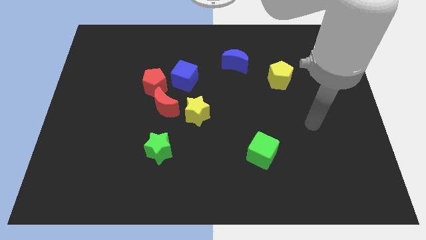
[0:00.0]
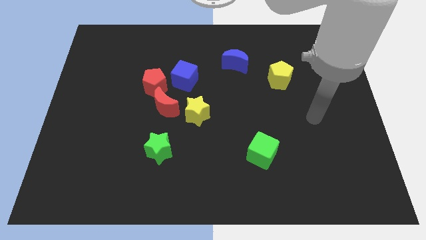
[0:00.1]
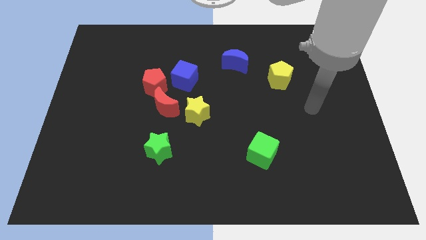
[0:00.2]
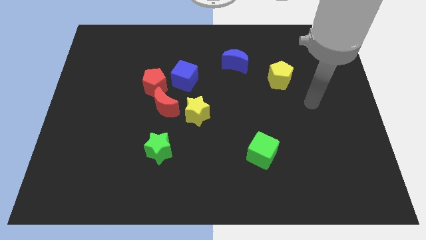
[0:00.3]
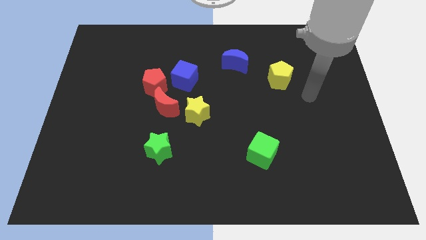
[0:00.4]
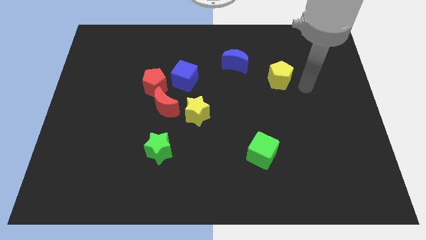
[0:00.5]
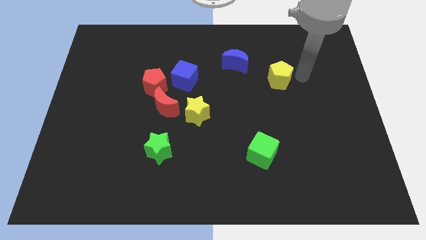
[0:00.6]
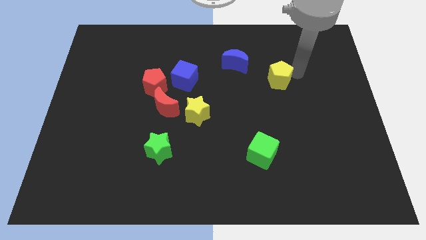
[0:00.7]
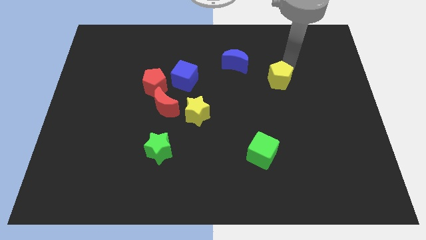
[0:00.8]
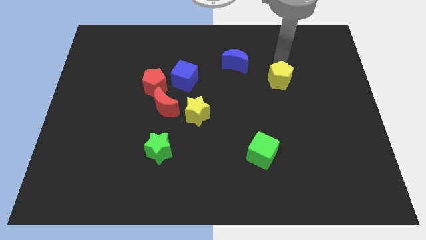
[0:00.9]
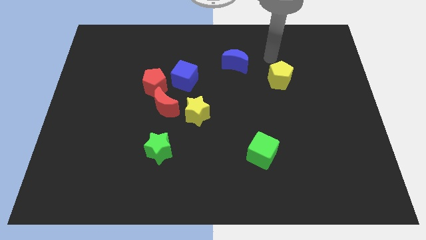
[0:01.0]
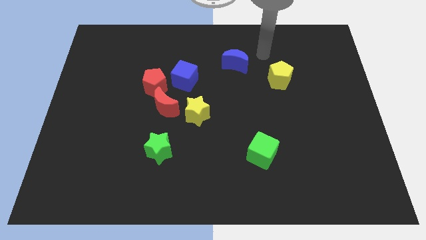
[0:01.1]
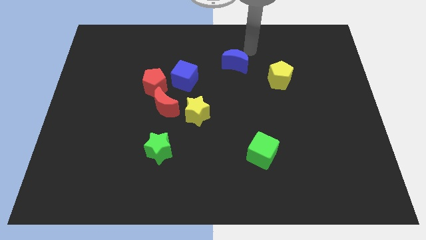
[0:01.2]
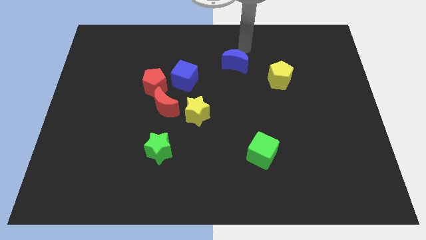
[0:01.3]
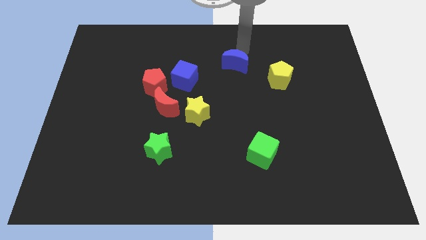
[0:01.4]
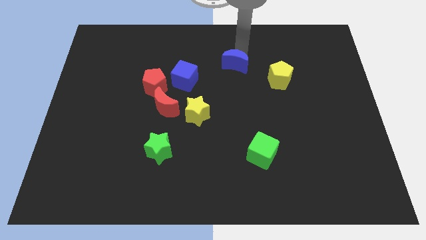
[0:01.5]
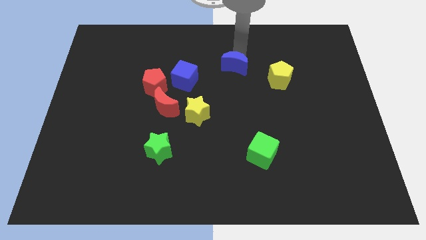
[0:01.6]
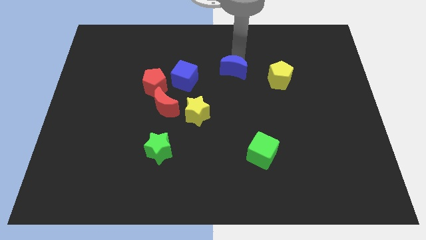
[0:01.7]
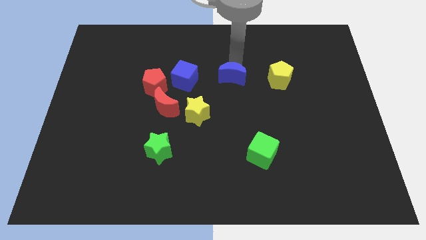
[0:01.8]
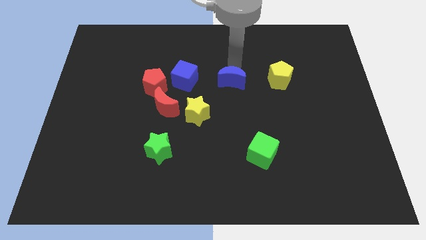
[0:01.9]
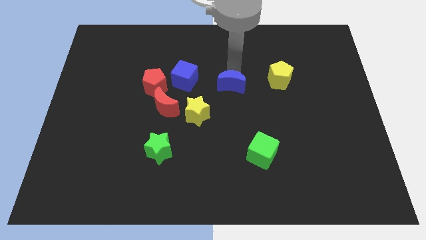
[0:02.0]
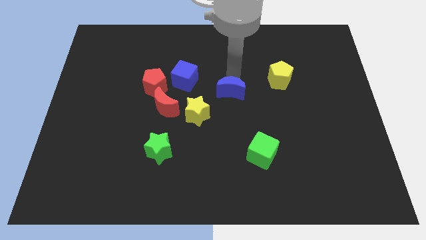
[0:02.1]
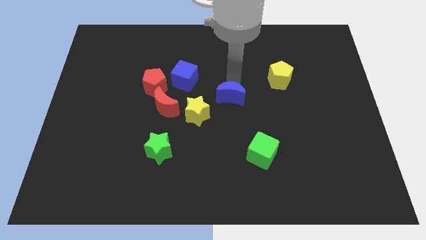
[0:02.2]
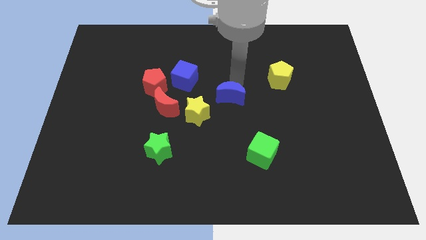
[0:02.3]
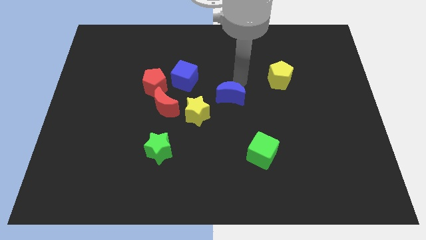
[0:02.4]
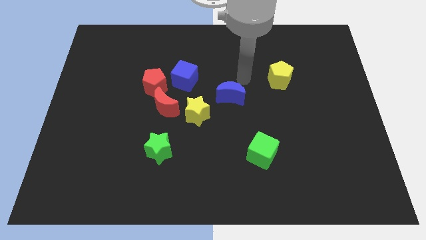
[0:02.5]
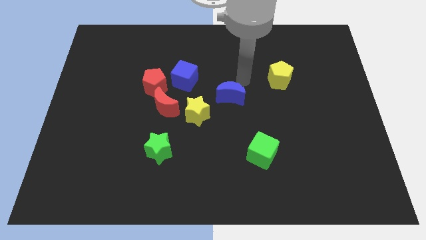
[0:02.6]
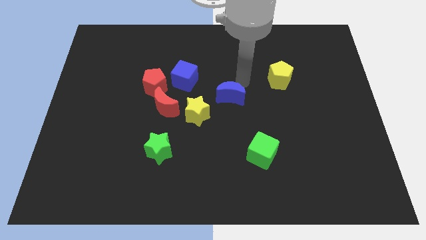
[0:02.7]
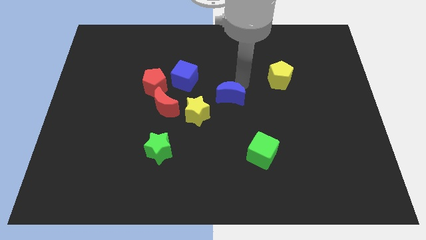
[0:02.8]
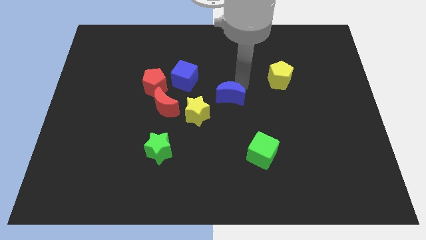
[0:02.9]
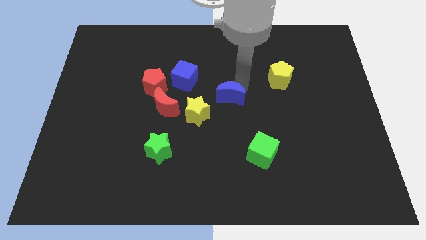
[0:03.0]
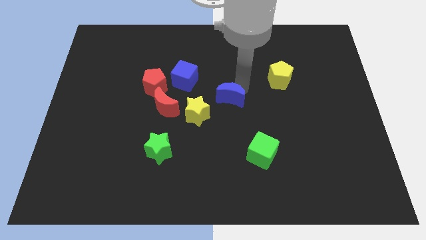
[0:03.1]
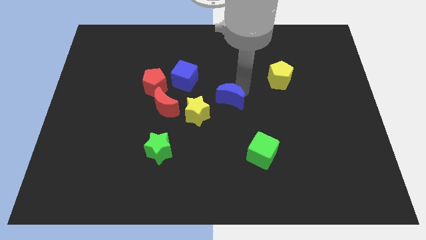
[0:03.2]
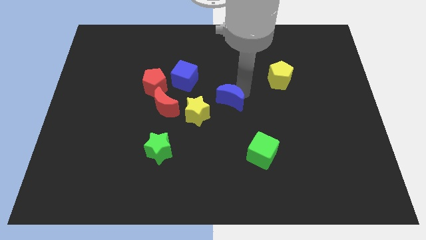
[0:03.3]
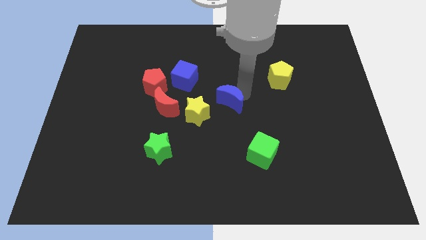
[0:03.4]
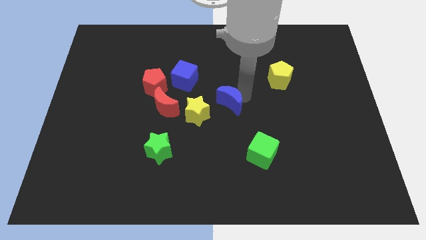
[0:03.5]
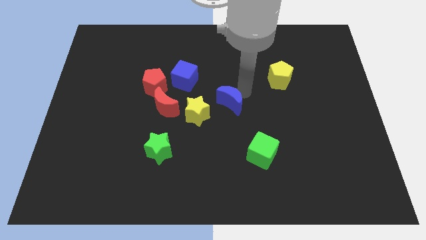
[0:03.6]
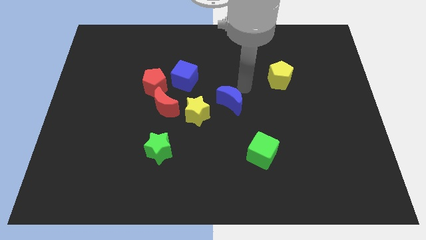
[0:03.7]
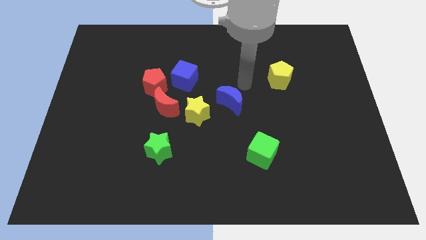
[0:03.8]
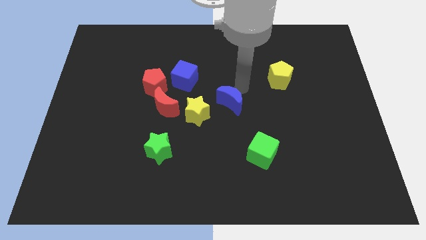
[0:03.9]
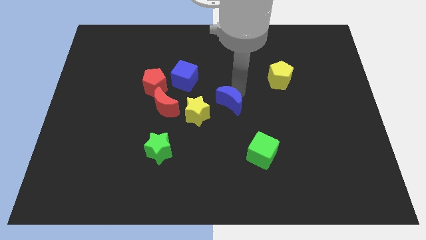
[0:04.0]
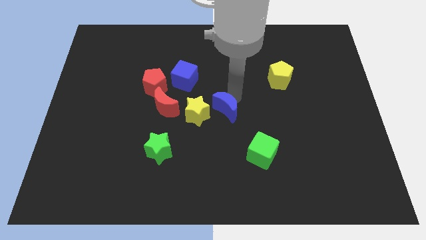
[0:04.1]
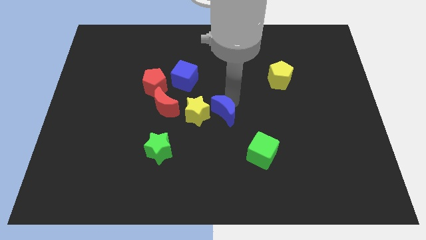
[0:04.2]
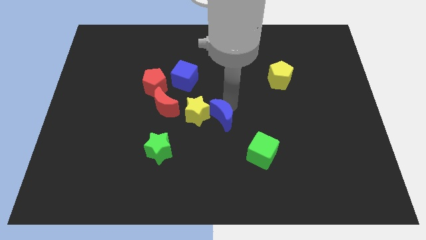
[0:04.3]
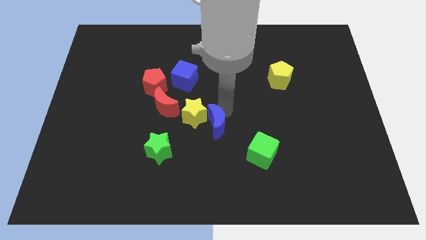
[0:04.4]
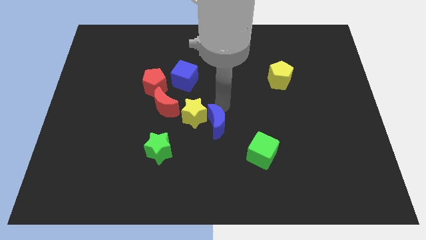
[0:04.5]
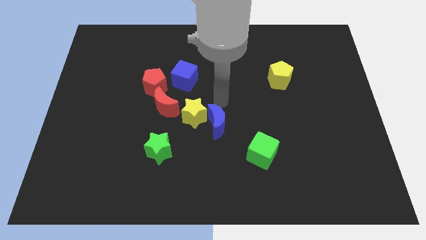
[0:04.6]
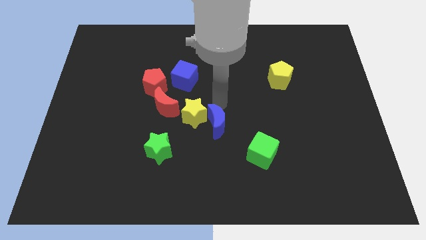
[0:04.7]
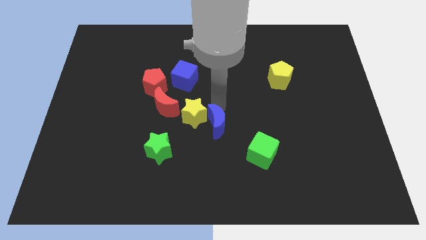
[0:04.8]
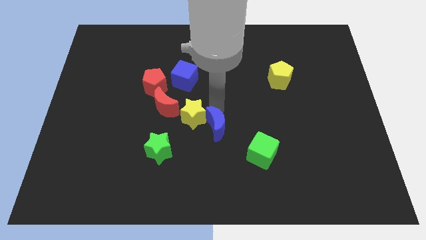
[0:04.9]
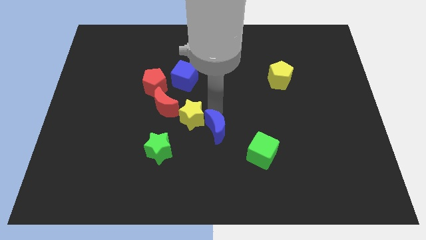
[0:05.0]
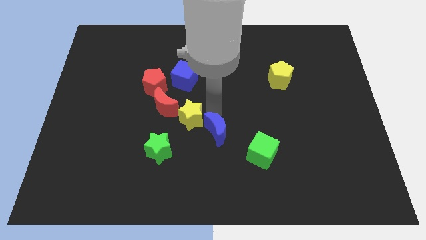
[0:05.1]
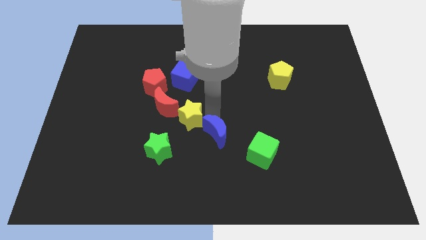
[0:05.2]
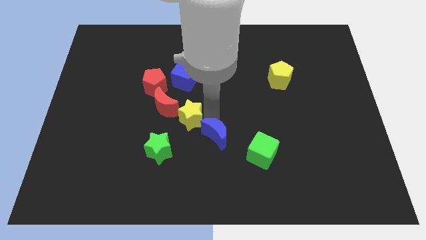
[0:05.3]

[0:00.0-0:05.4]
push the blue moon just left of the green cube
